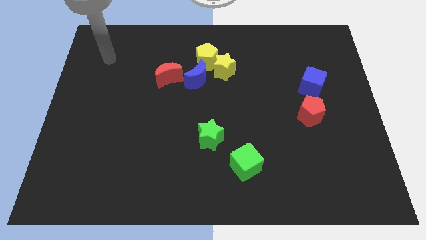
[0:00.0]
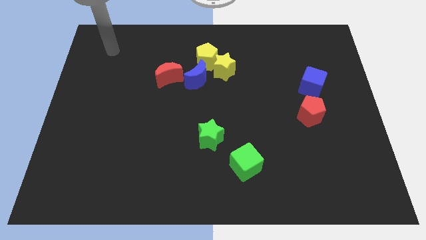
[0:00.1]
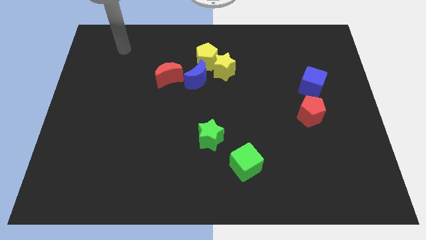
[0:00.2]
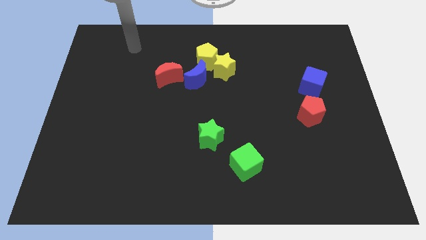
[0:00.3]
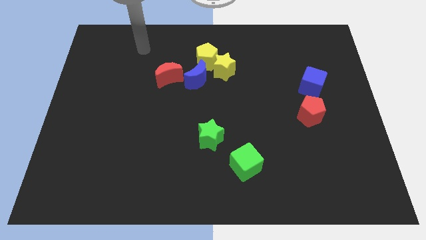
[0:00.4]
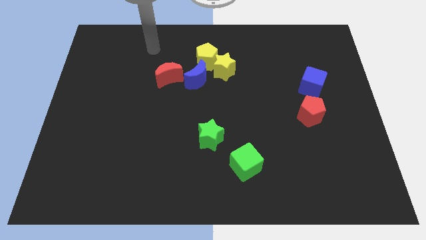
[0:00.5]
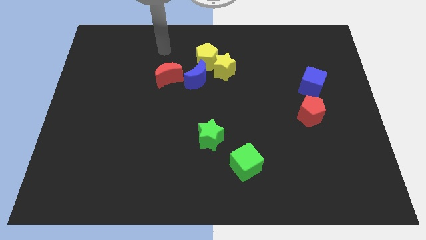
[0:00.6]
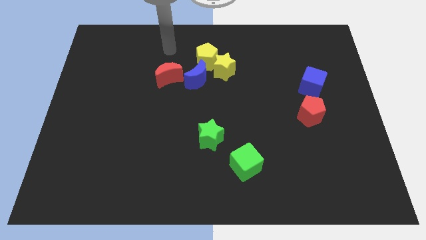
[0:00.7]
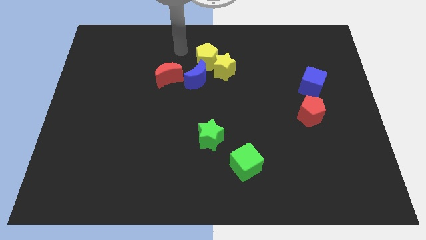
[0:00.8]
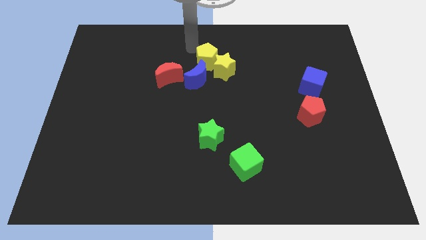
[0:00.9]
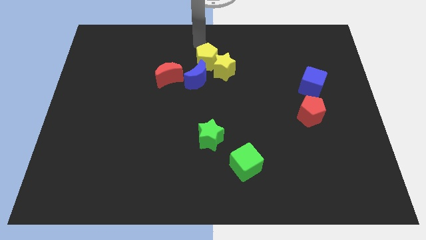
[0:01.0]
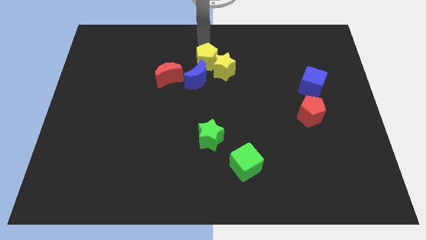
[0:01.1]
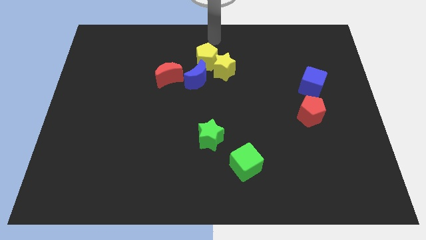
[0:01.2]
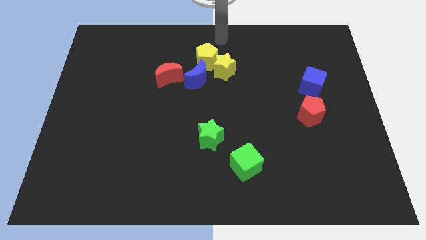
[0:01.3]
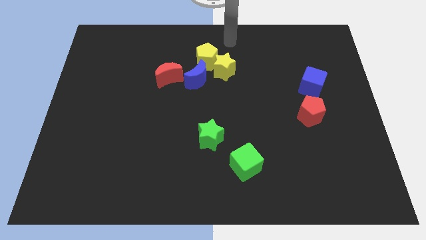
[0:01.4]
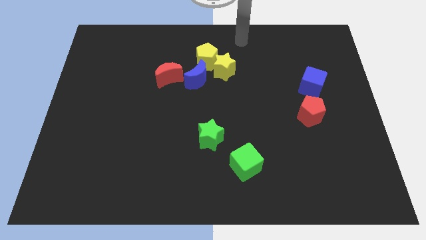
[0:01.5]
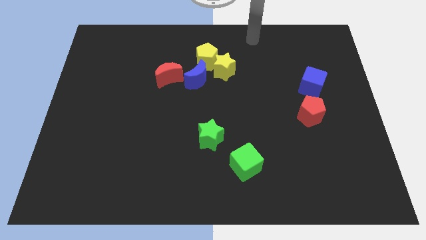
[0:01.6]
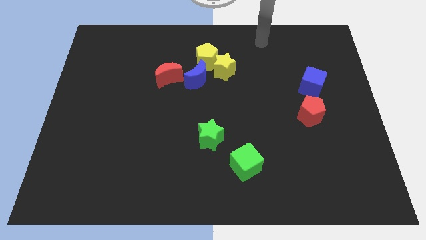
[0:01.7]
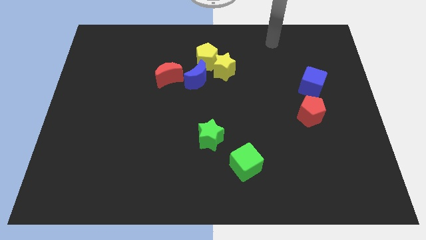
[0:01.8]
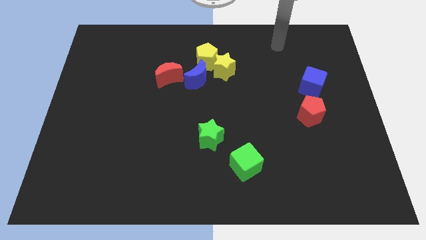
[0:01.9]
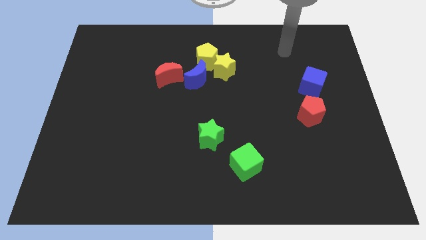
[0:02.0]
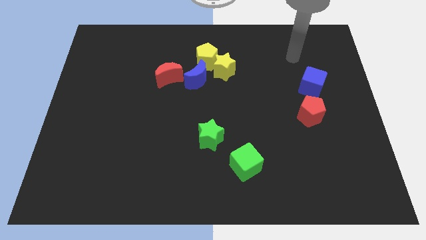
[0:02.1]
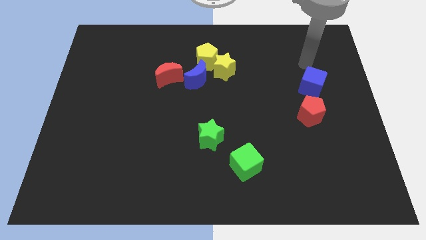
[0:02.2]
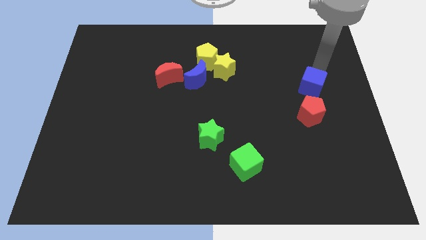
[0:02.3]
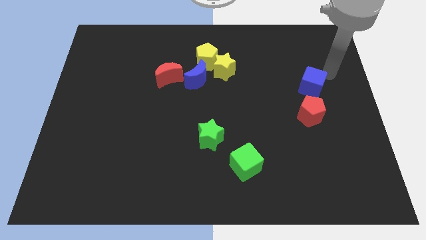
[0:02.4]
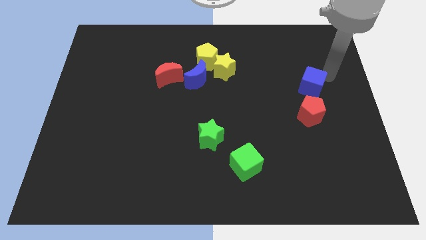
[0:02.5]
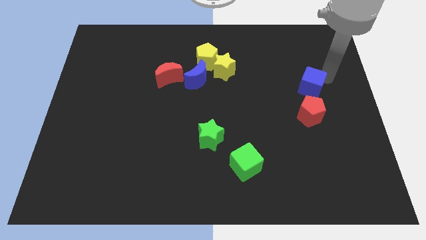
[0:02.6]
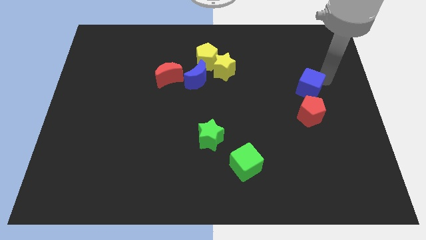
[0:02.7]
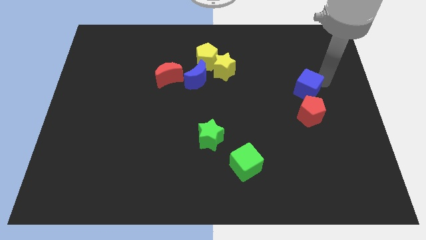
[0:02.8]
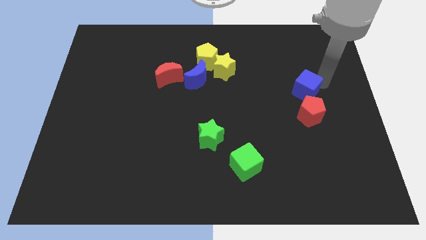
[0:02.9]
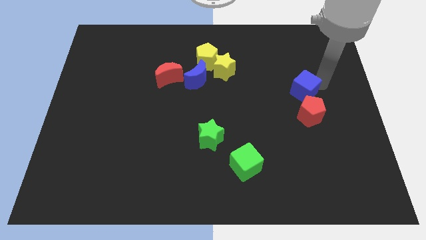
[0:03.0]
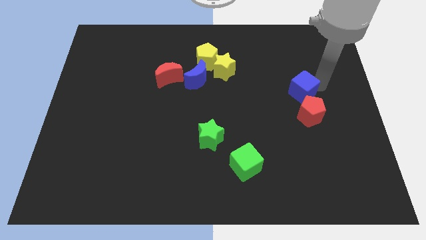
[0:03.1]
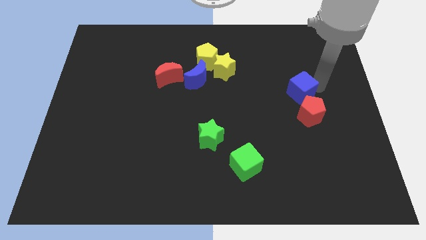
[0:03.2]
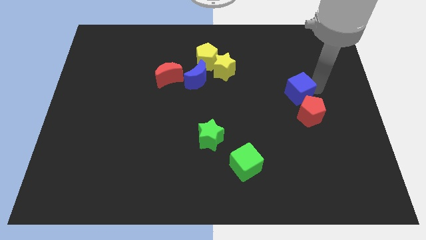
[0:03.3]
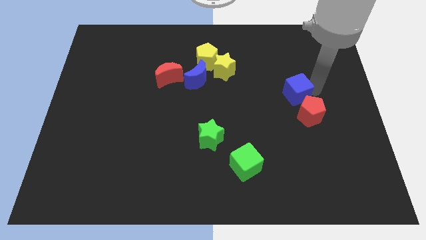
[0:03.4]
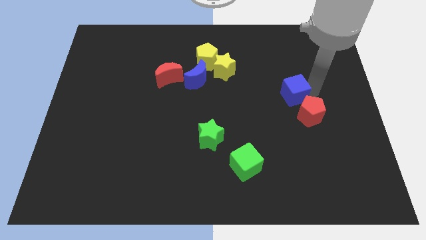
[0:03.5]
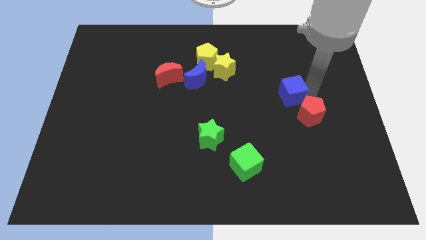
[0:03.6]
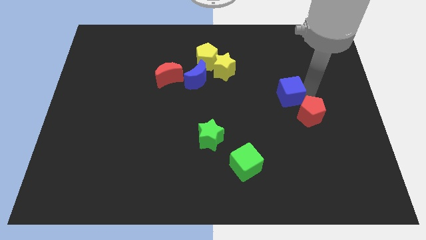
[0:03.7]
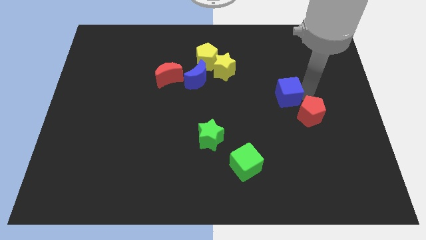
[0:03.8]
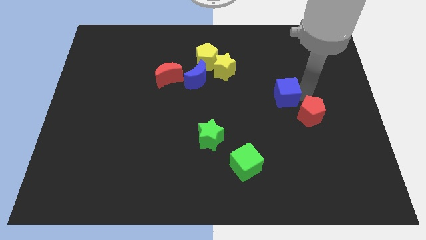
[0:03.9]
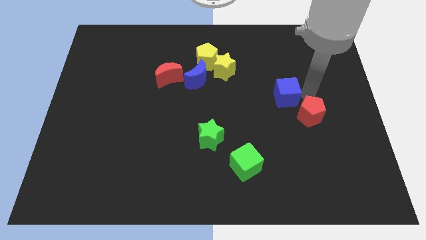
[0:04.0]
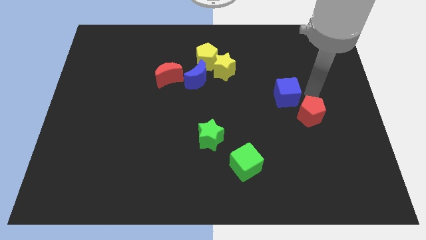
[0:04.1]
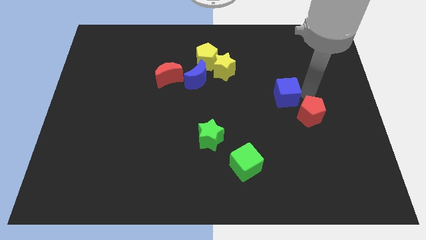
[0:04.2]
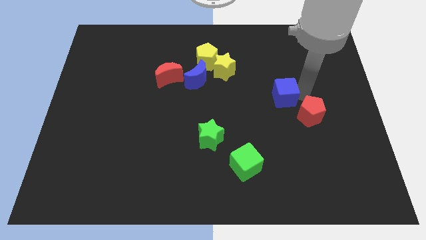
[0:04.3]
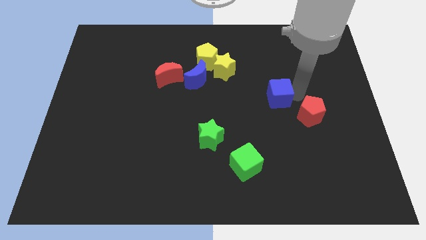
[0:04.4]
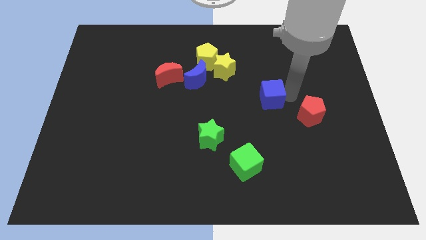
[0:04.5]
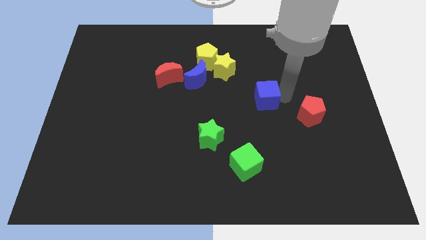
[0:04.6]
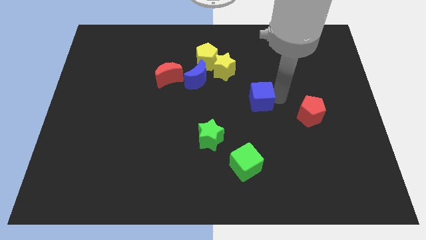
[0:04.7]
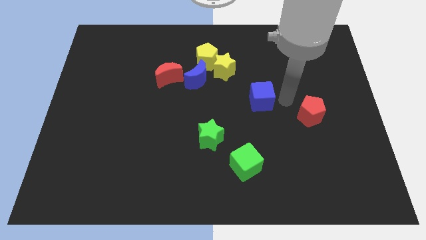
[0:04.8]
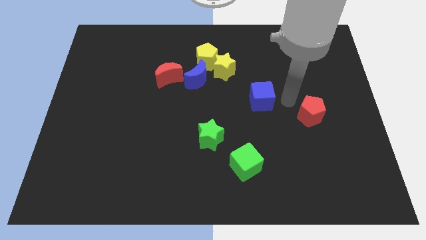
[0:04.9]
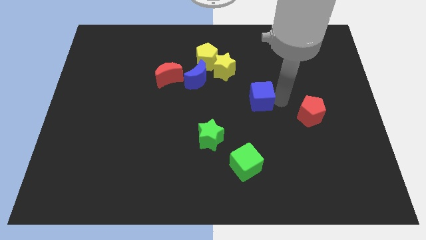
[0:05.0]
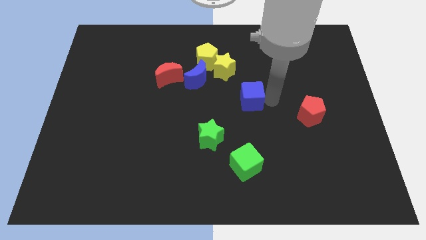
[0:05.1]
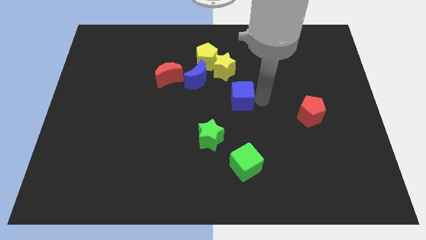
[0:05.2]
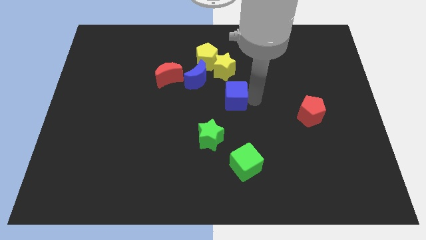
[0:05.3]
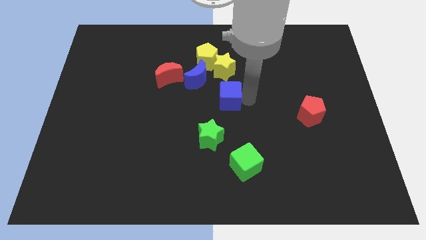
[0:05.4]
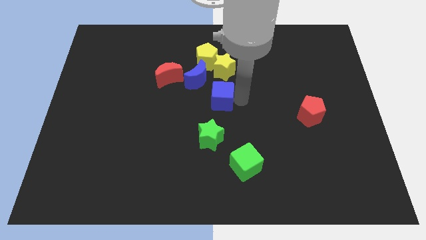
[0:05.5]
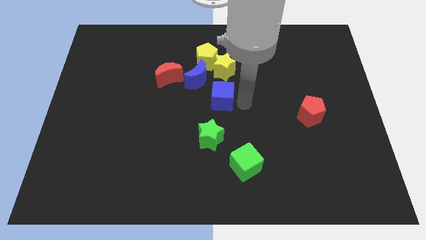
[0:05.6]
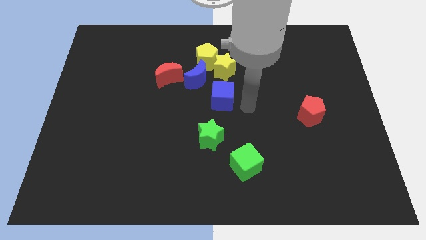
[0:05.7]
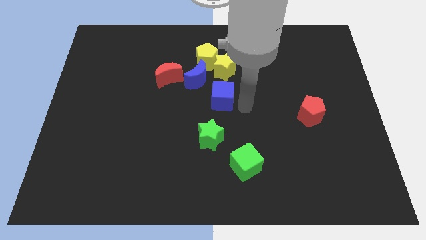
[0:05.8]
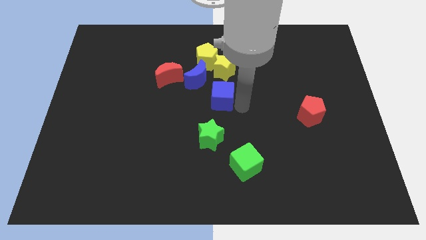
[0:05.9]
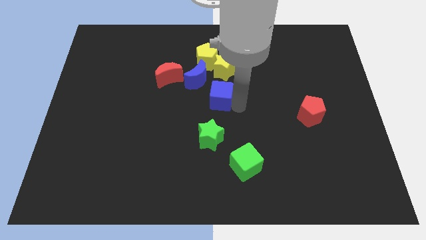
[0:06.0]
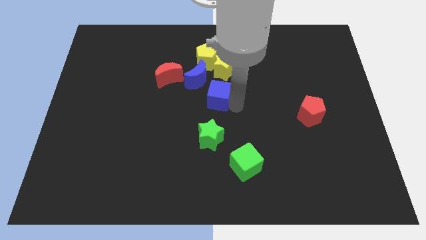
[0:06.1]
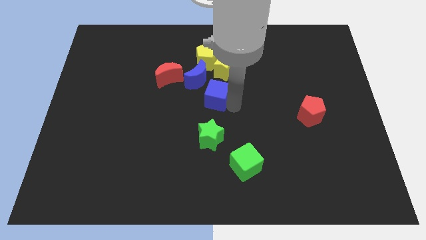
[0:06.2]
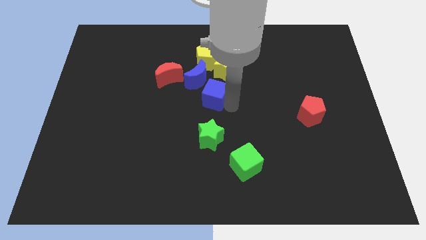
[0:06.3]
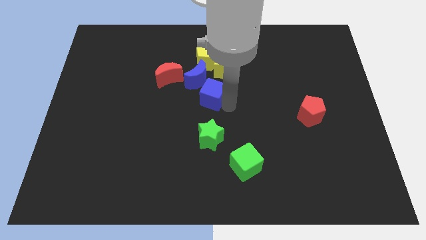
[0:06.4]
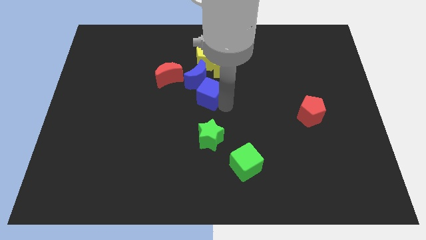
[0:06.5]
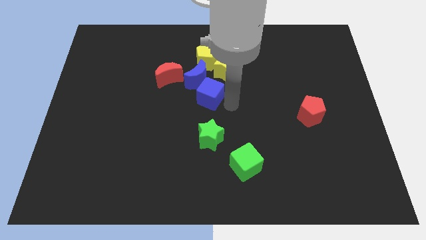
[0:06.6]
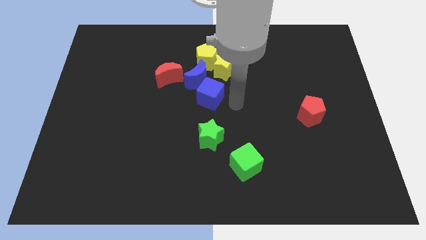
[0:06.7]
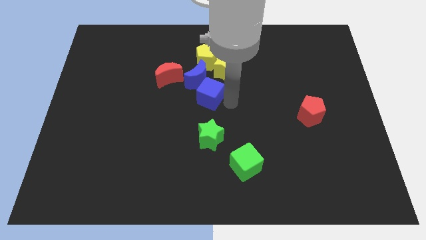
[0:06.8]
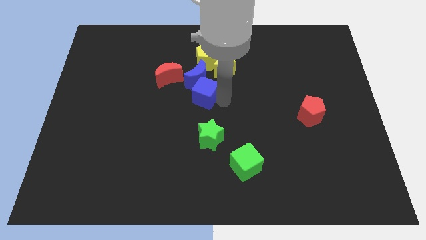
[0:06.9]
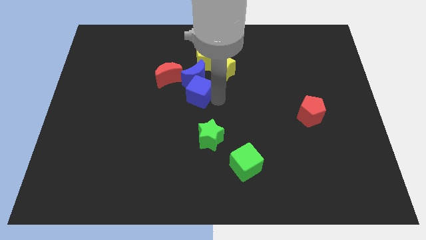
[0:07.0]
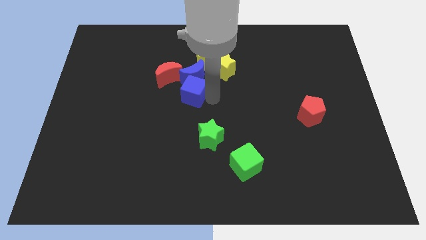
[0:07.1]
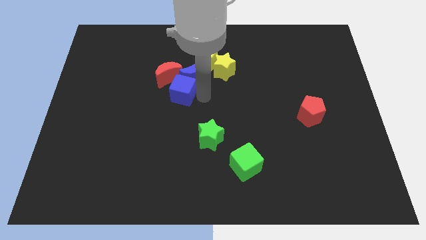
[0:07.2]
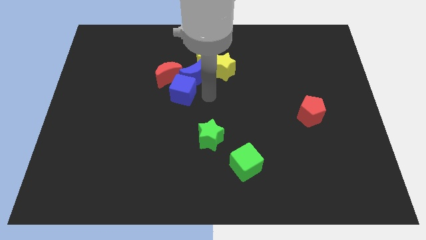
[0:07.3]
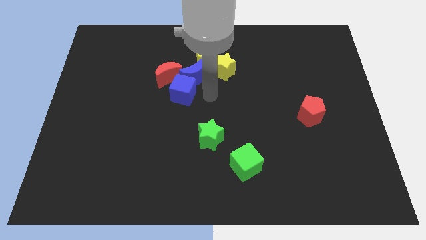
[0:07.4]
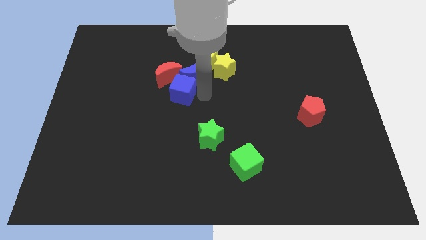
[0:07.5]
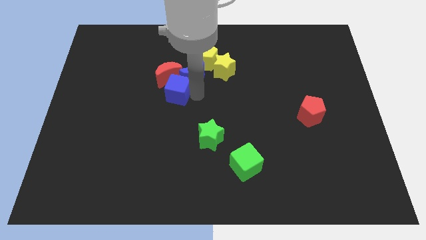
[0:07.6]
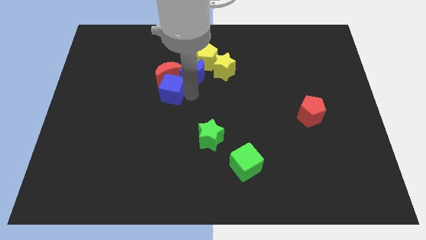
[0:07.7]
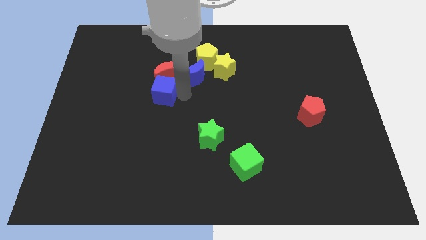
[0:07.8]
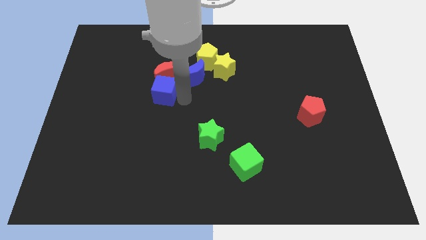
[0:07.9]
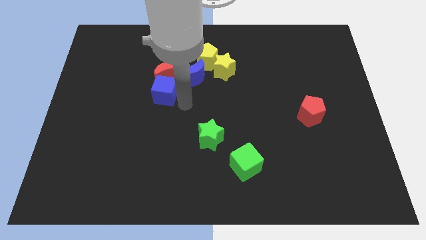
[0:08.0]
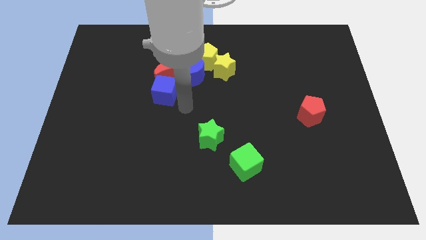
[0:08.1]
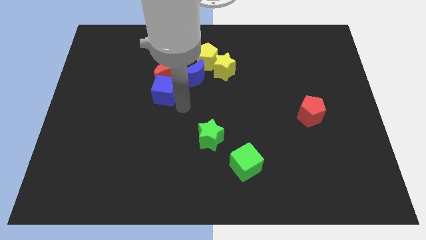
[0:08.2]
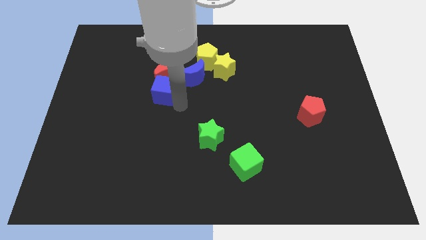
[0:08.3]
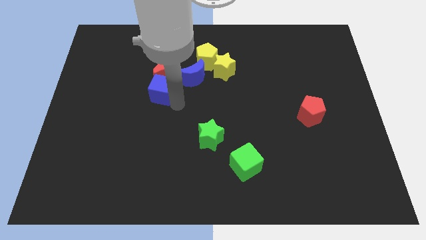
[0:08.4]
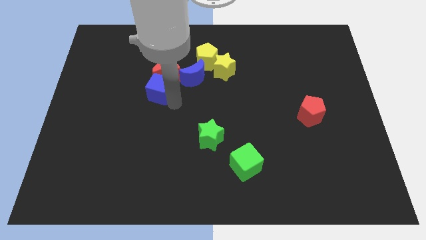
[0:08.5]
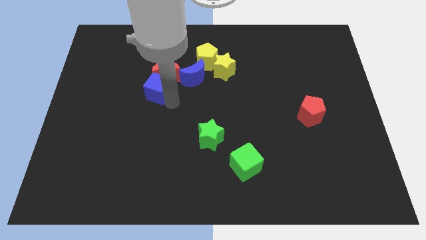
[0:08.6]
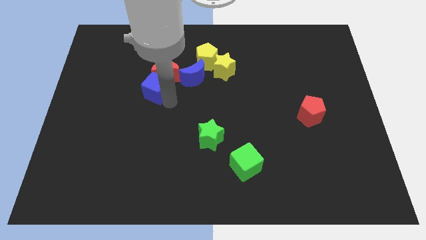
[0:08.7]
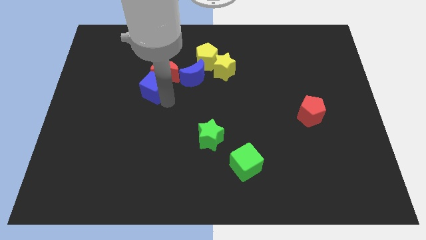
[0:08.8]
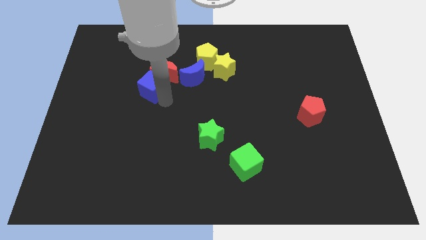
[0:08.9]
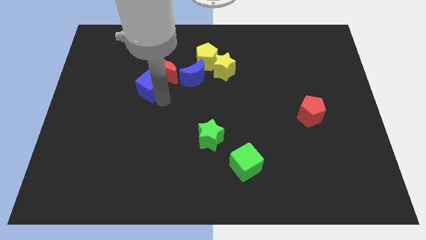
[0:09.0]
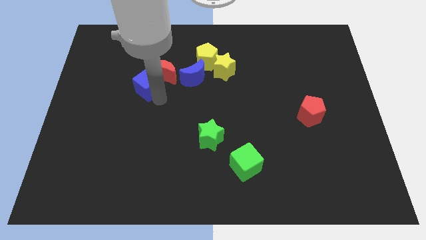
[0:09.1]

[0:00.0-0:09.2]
push the blue cube to the left side of the red moon
